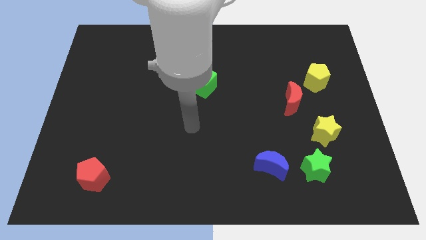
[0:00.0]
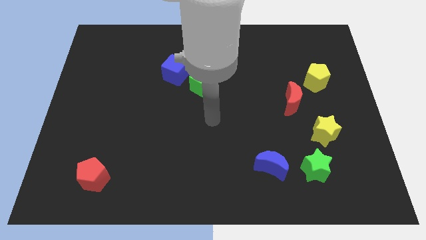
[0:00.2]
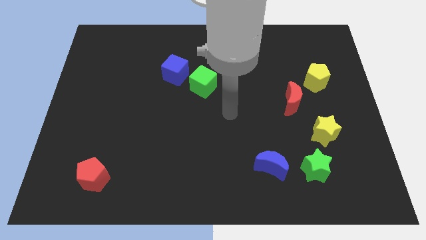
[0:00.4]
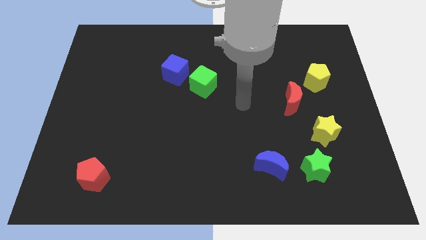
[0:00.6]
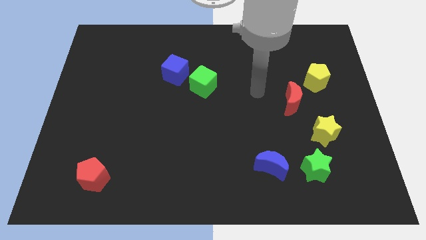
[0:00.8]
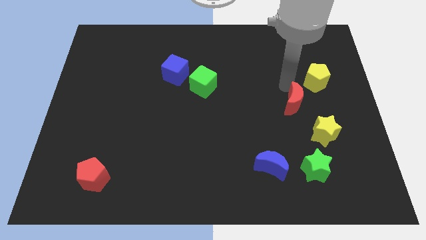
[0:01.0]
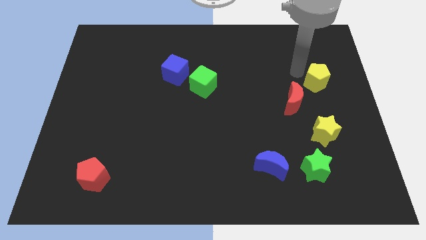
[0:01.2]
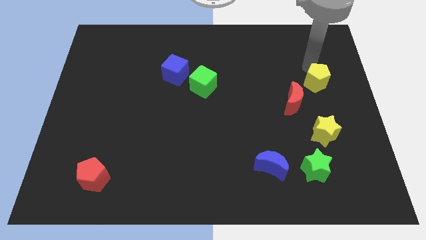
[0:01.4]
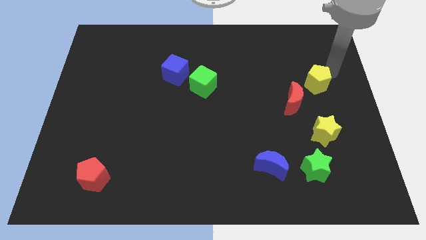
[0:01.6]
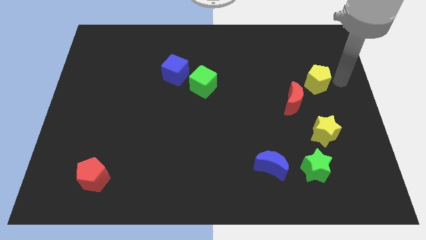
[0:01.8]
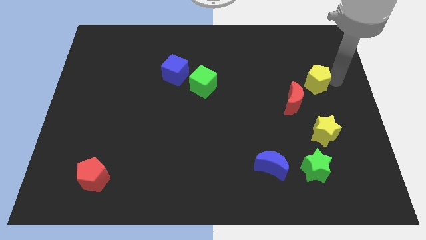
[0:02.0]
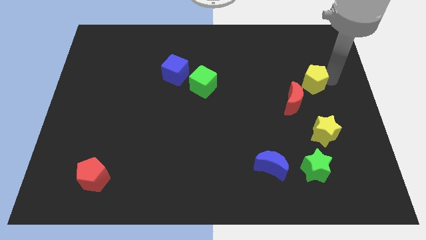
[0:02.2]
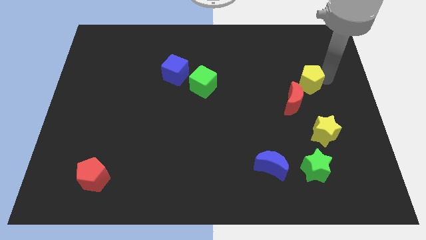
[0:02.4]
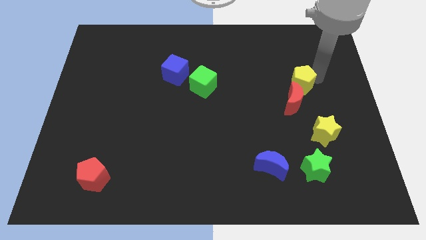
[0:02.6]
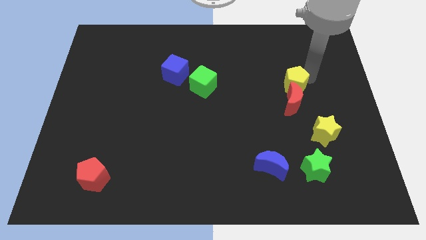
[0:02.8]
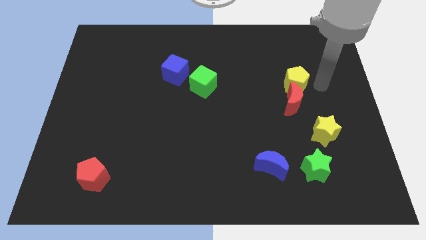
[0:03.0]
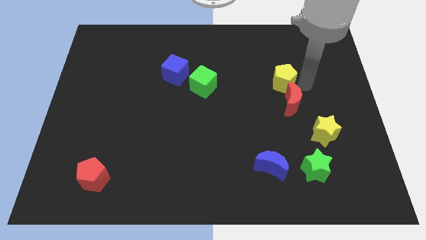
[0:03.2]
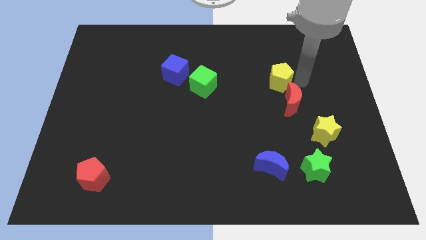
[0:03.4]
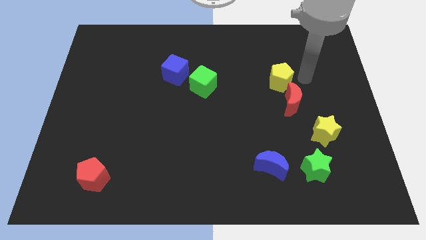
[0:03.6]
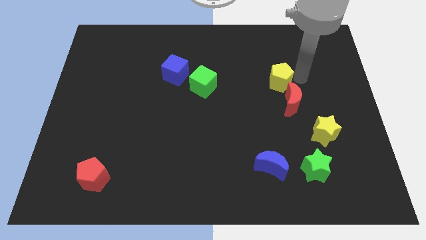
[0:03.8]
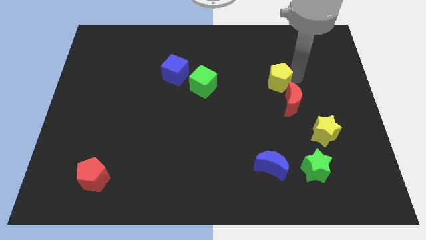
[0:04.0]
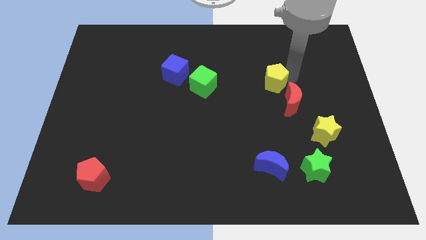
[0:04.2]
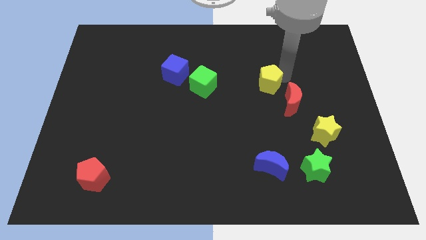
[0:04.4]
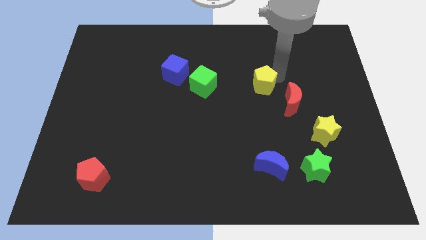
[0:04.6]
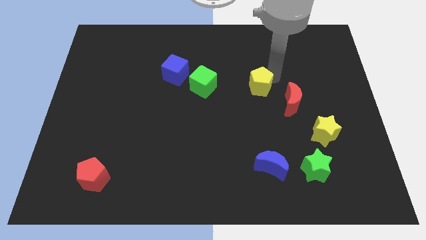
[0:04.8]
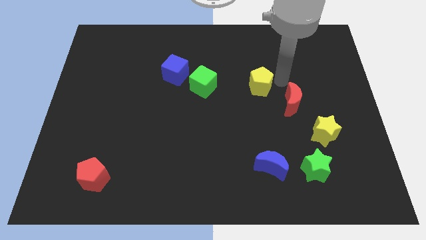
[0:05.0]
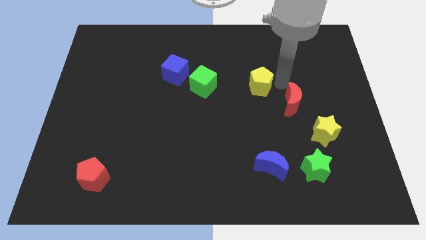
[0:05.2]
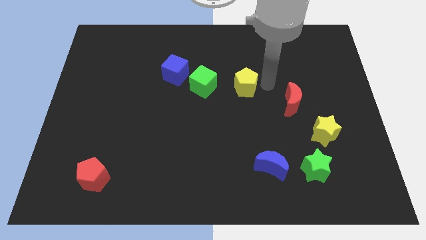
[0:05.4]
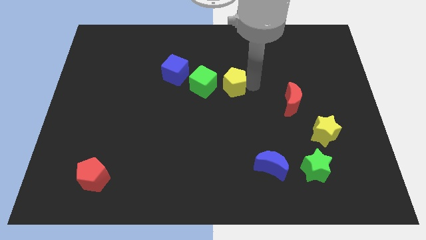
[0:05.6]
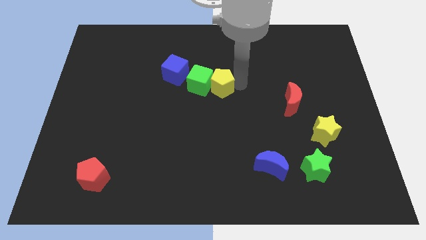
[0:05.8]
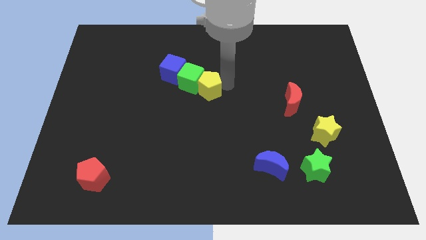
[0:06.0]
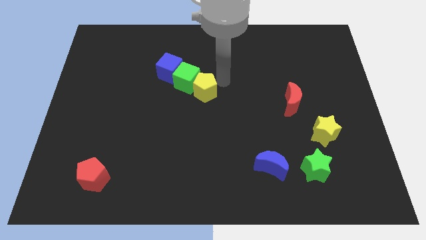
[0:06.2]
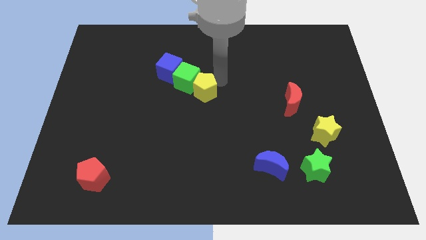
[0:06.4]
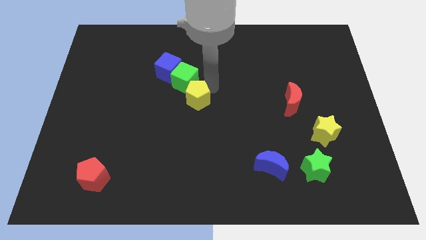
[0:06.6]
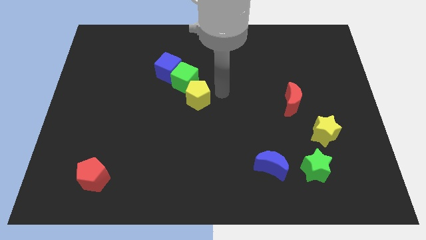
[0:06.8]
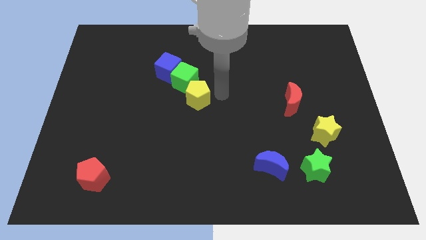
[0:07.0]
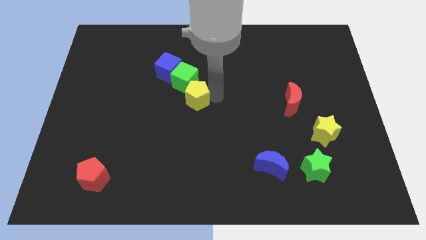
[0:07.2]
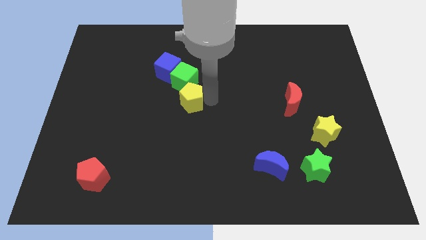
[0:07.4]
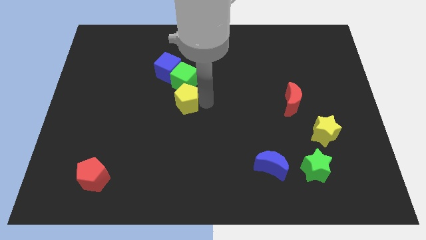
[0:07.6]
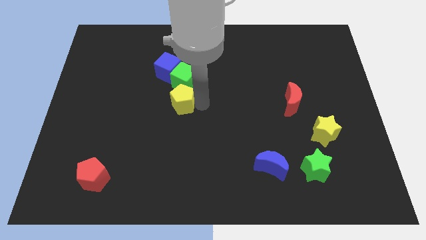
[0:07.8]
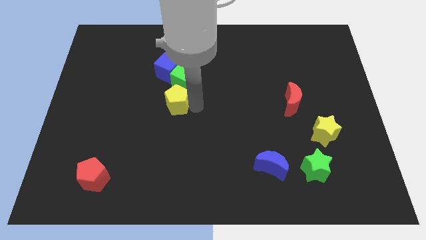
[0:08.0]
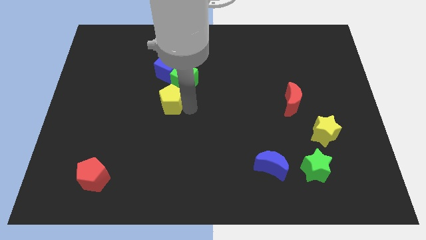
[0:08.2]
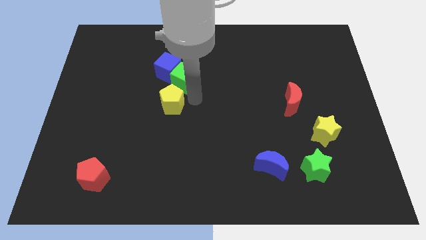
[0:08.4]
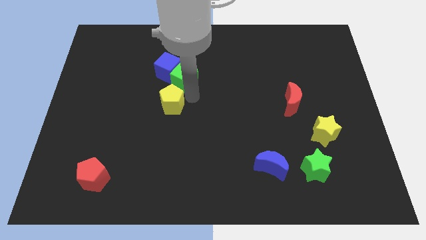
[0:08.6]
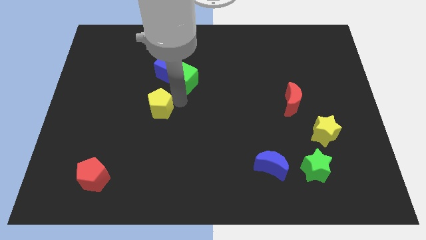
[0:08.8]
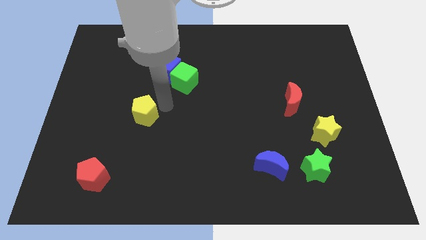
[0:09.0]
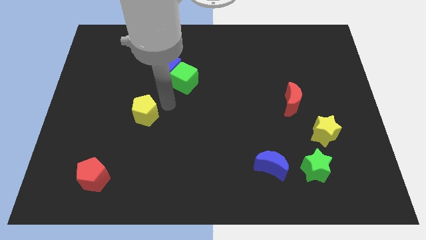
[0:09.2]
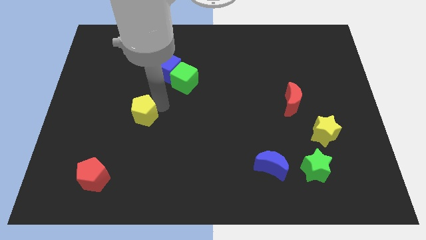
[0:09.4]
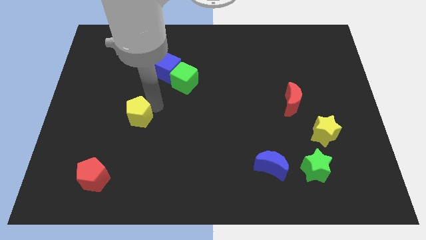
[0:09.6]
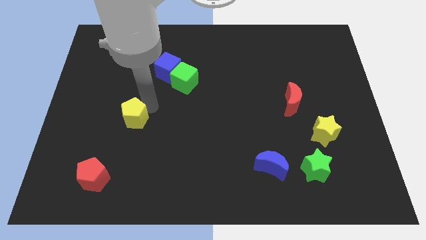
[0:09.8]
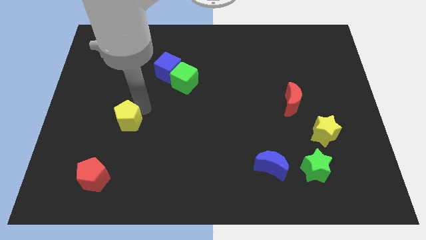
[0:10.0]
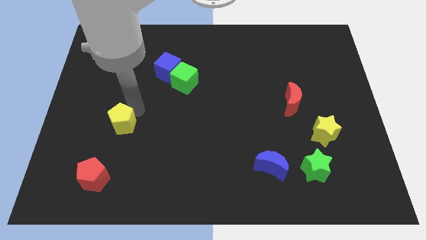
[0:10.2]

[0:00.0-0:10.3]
move the yellow pentagon to the top of the red pentagon

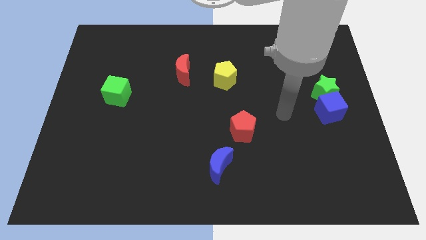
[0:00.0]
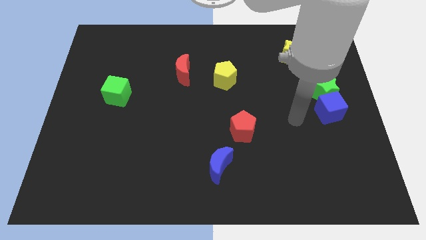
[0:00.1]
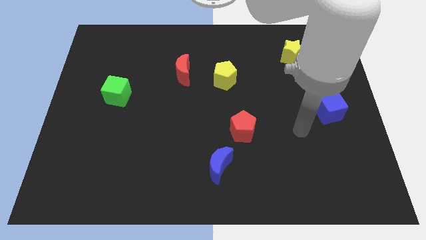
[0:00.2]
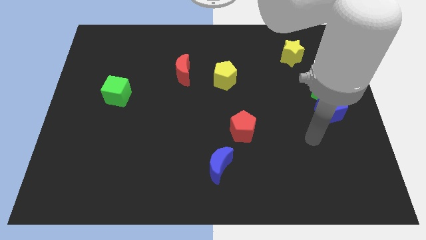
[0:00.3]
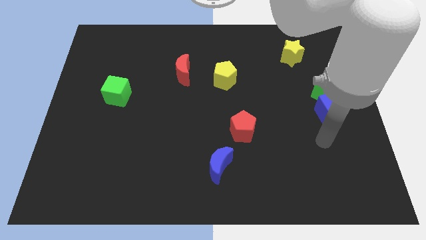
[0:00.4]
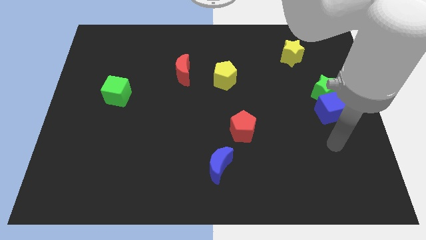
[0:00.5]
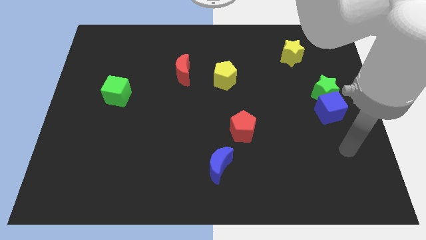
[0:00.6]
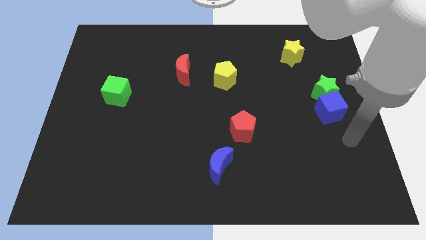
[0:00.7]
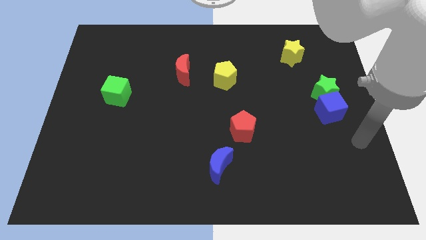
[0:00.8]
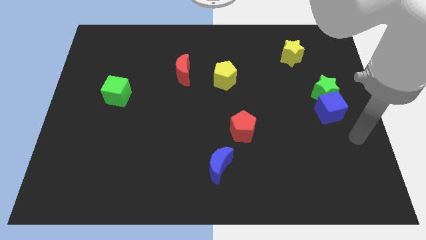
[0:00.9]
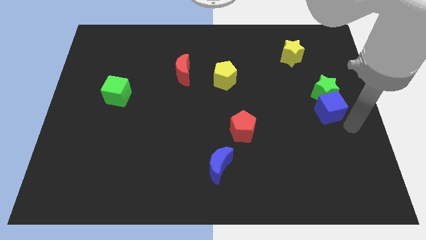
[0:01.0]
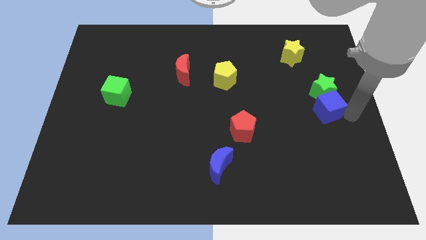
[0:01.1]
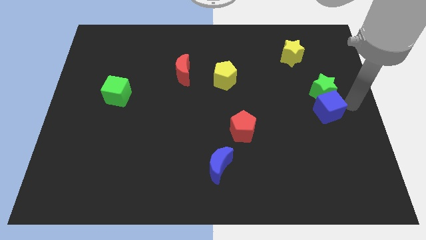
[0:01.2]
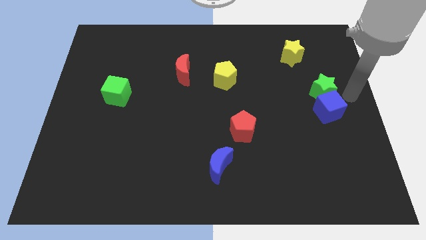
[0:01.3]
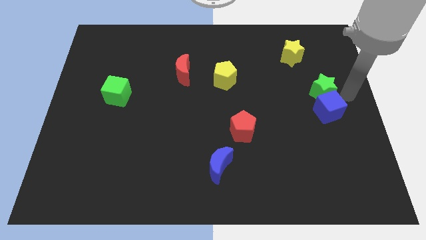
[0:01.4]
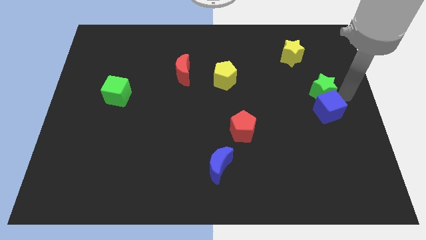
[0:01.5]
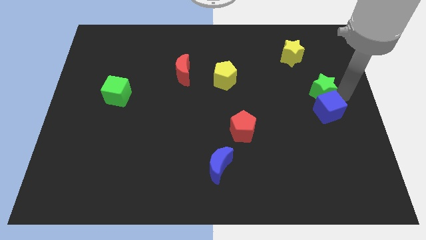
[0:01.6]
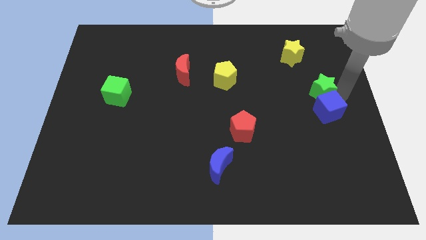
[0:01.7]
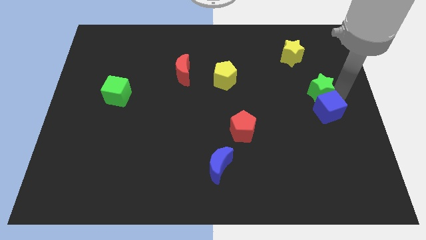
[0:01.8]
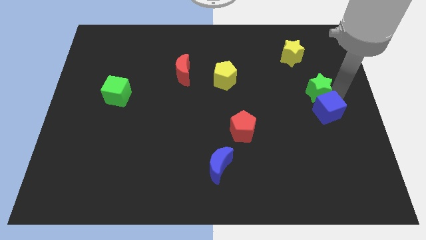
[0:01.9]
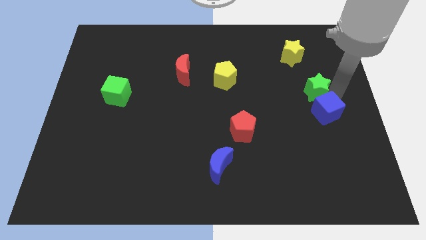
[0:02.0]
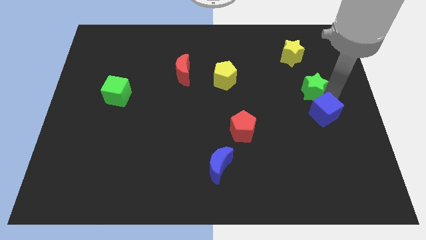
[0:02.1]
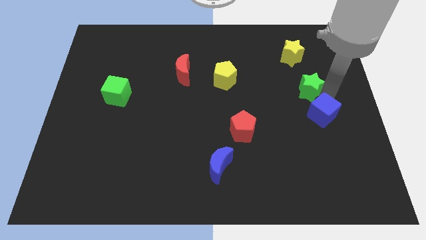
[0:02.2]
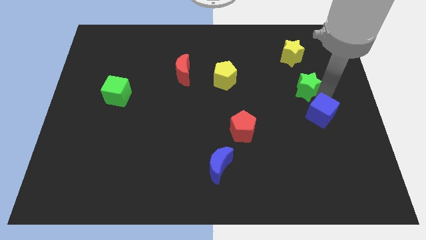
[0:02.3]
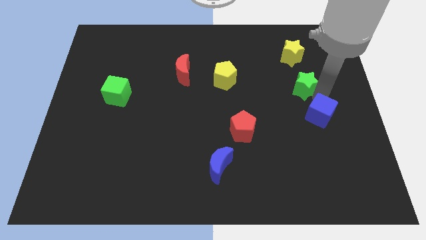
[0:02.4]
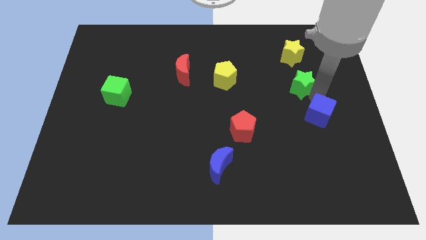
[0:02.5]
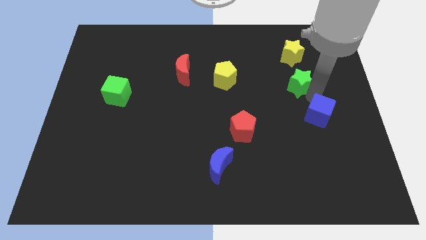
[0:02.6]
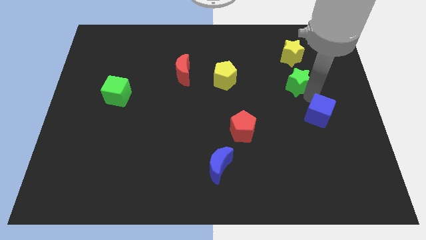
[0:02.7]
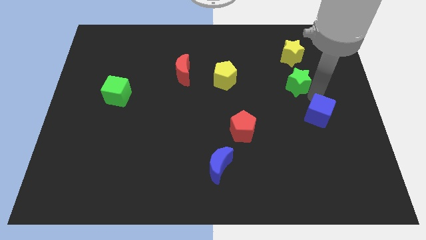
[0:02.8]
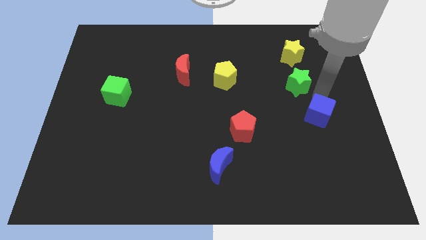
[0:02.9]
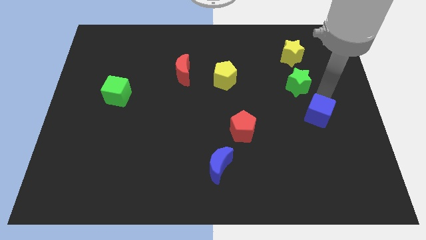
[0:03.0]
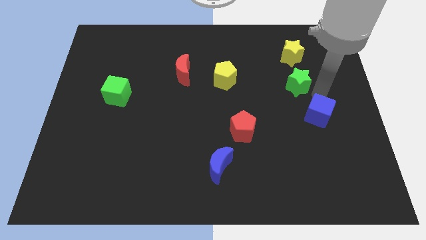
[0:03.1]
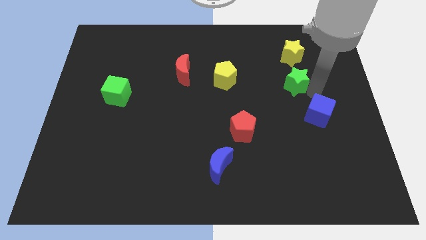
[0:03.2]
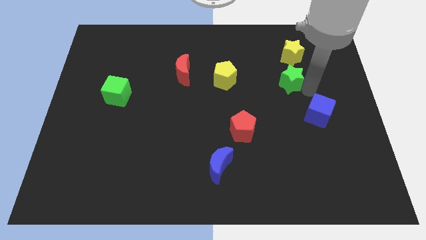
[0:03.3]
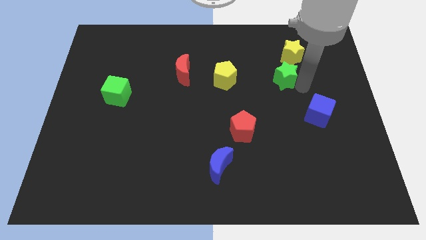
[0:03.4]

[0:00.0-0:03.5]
move the green star right of the yellow pentagon
